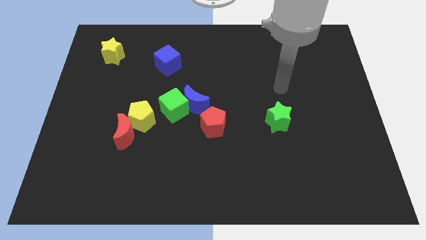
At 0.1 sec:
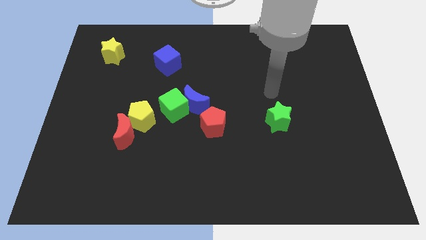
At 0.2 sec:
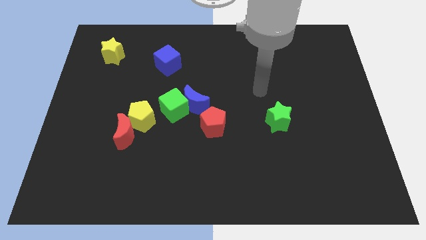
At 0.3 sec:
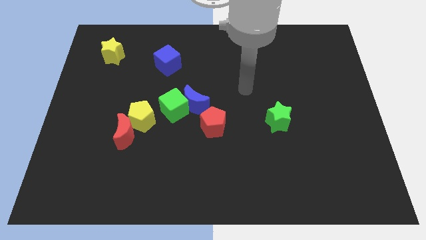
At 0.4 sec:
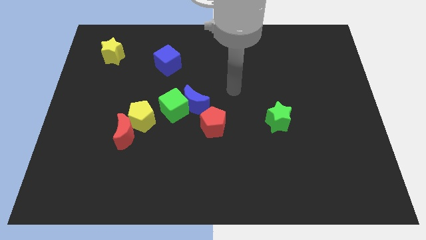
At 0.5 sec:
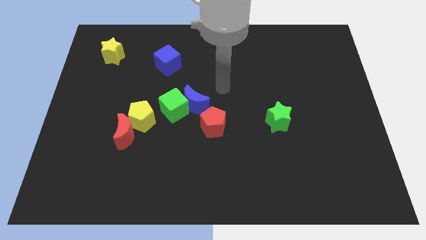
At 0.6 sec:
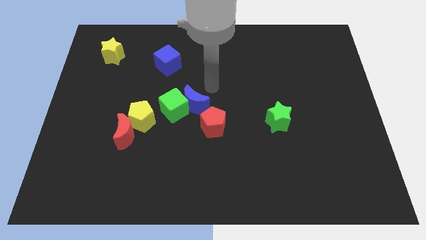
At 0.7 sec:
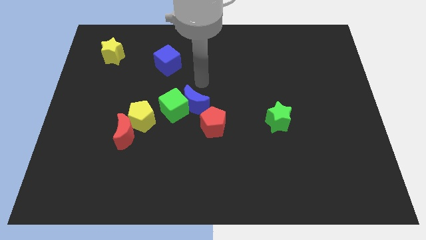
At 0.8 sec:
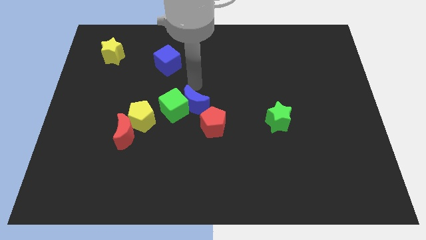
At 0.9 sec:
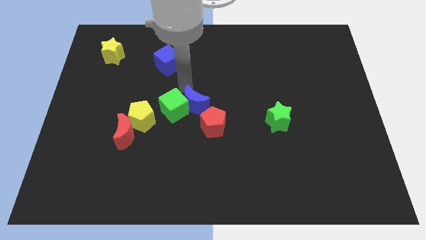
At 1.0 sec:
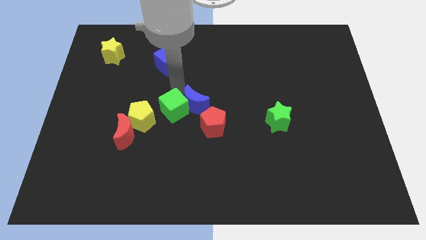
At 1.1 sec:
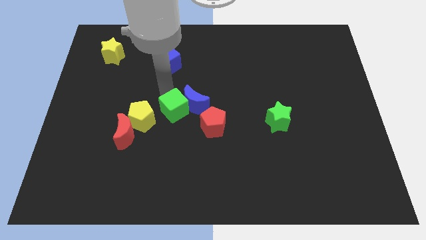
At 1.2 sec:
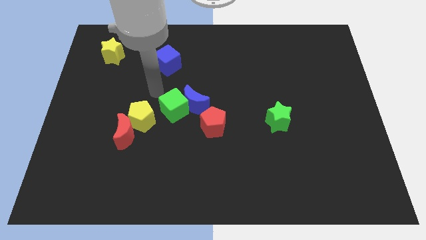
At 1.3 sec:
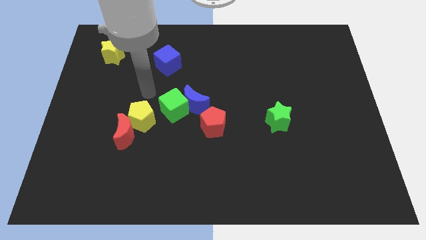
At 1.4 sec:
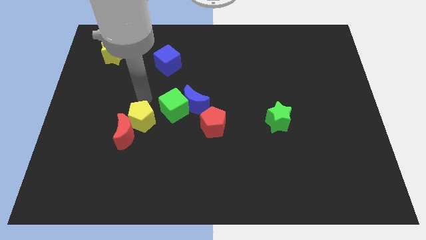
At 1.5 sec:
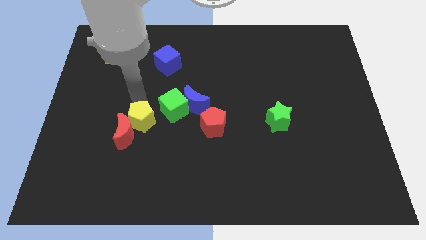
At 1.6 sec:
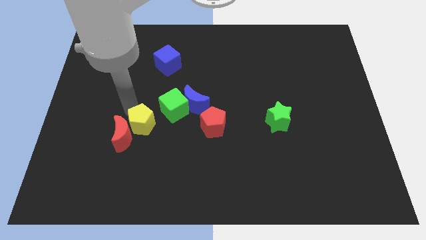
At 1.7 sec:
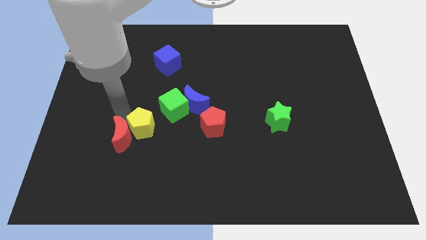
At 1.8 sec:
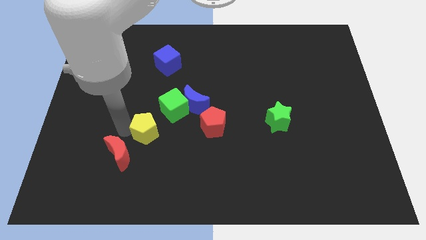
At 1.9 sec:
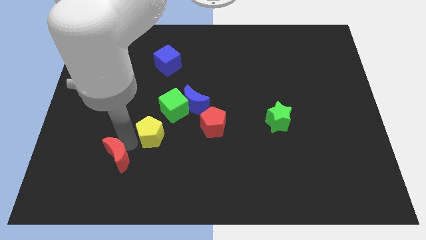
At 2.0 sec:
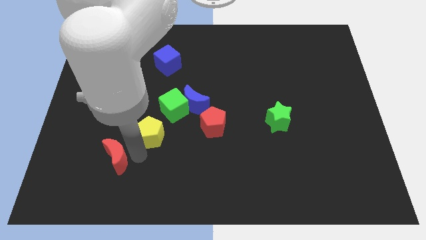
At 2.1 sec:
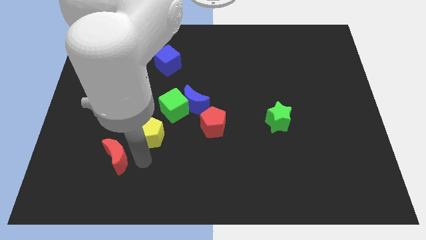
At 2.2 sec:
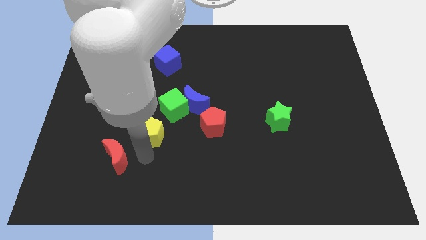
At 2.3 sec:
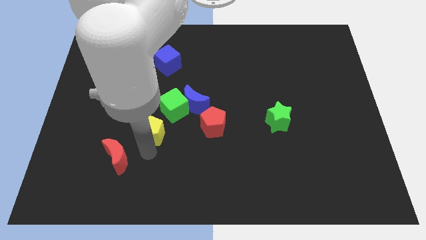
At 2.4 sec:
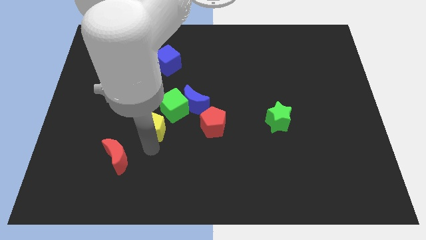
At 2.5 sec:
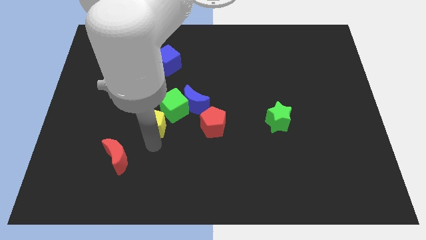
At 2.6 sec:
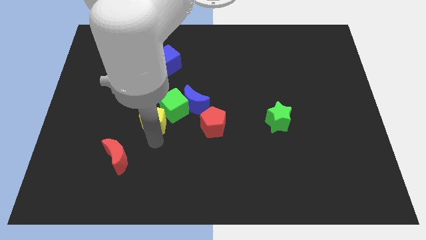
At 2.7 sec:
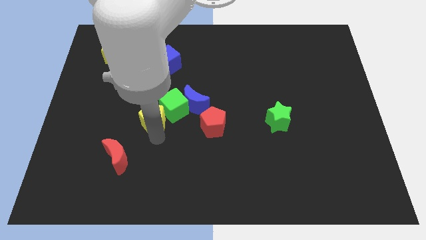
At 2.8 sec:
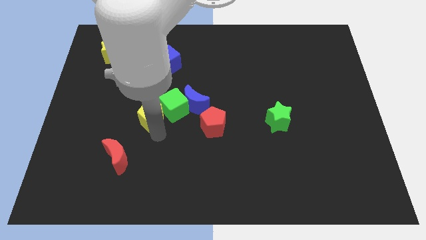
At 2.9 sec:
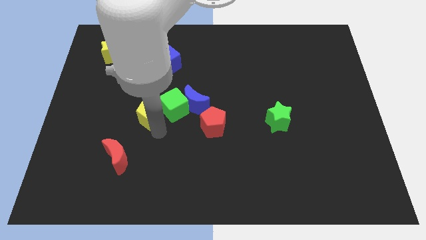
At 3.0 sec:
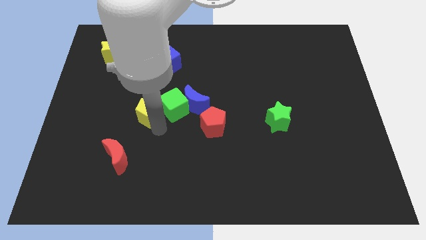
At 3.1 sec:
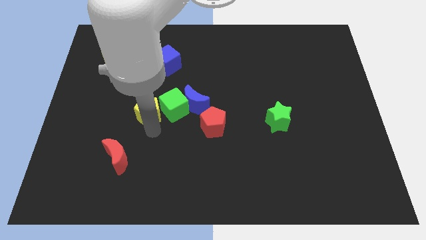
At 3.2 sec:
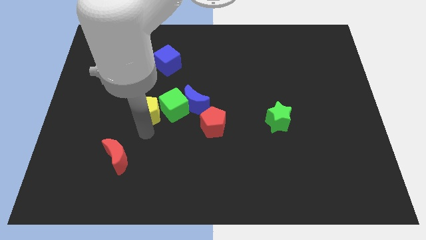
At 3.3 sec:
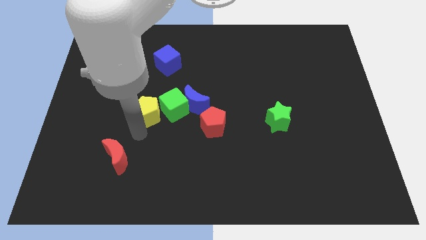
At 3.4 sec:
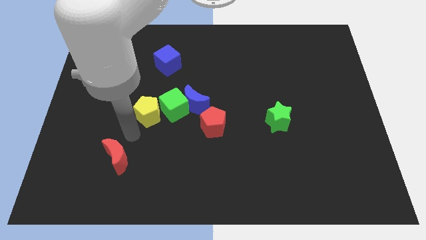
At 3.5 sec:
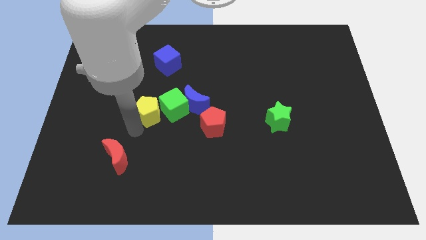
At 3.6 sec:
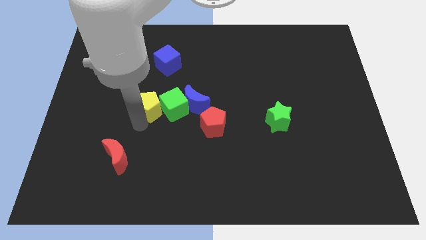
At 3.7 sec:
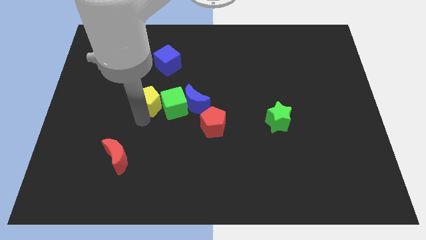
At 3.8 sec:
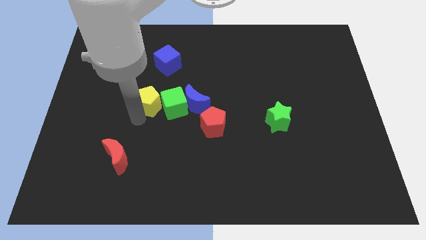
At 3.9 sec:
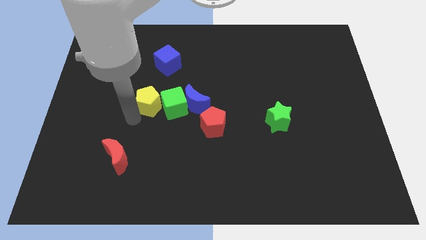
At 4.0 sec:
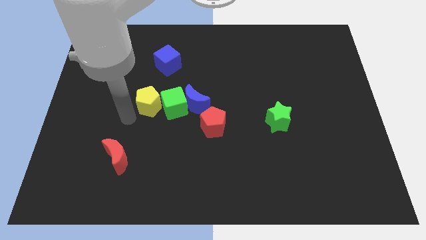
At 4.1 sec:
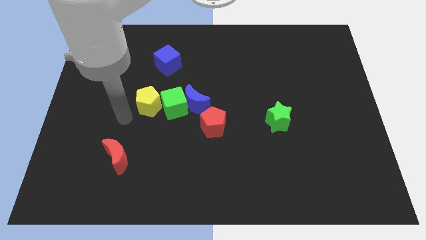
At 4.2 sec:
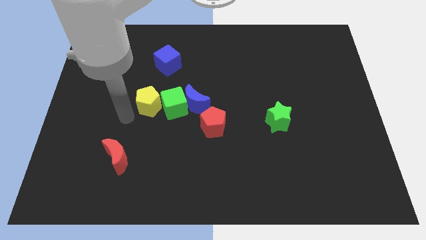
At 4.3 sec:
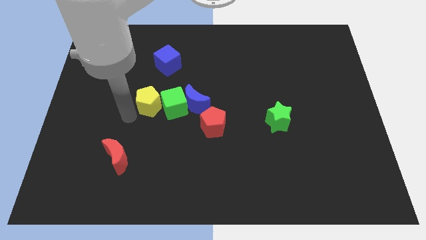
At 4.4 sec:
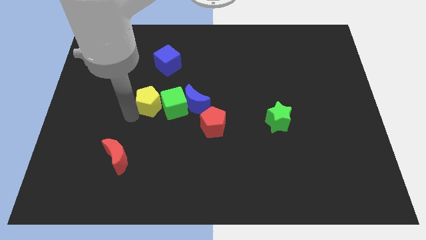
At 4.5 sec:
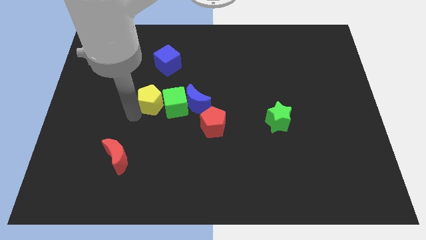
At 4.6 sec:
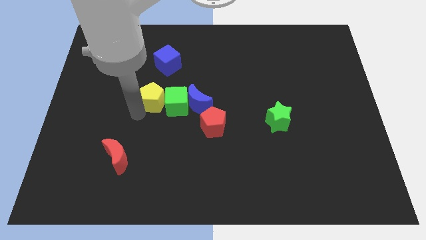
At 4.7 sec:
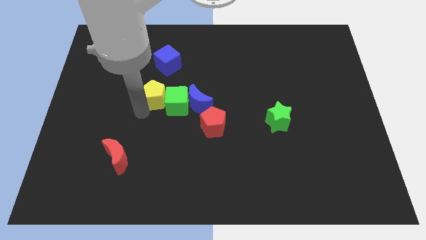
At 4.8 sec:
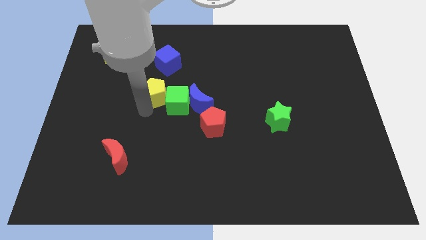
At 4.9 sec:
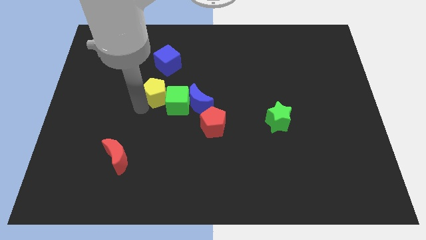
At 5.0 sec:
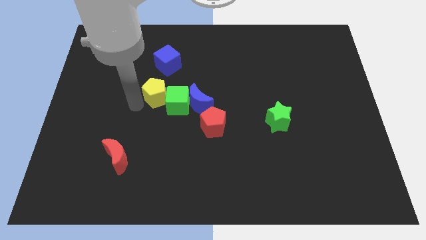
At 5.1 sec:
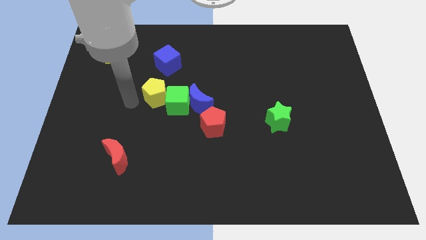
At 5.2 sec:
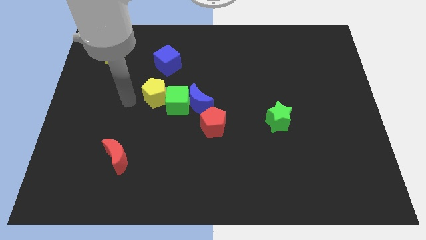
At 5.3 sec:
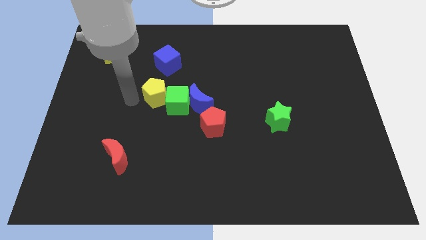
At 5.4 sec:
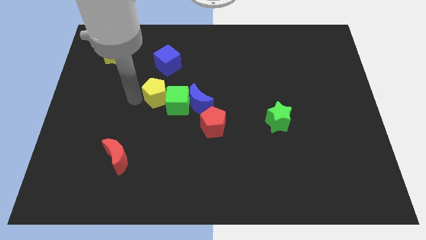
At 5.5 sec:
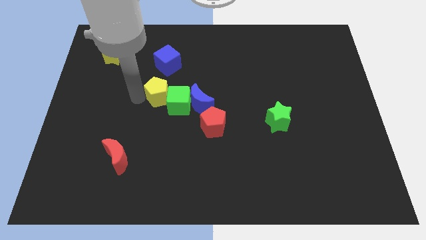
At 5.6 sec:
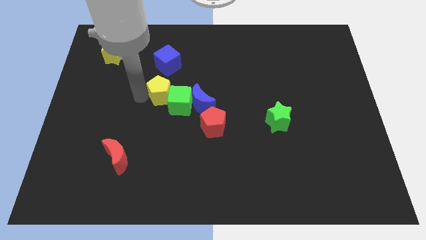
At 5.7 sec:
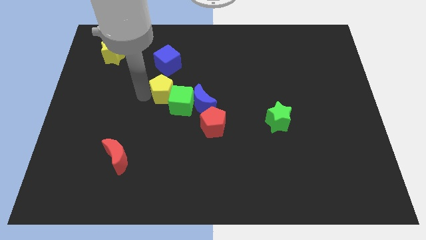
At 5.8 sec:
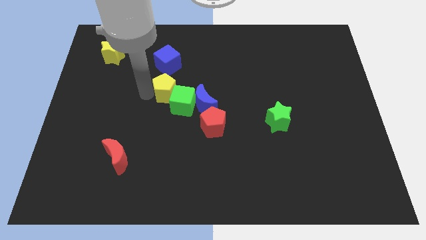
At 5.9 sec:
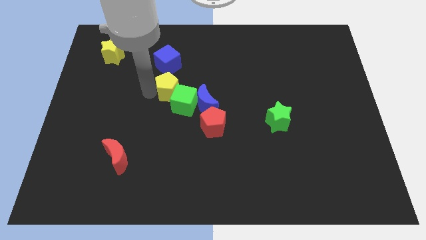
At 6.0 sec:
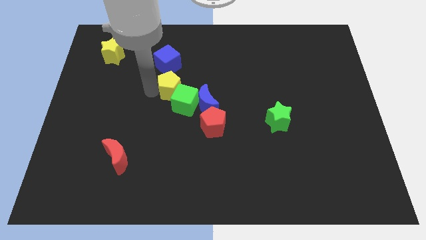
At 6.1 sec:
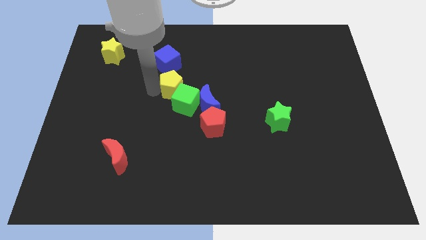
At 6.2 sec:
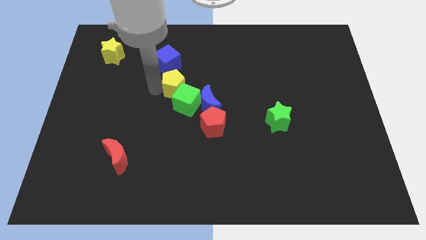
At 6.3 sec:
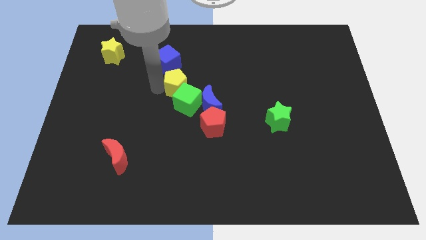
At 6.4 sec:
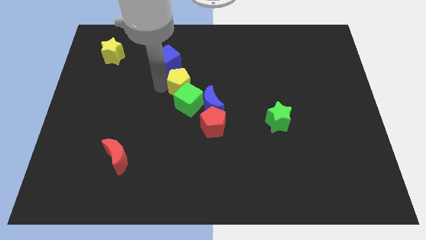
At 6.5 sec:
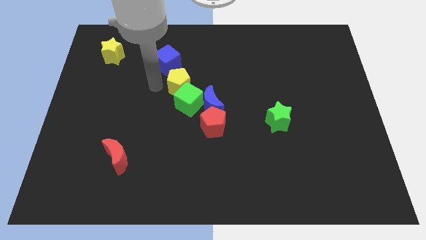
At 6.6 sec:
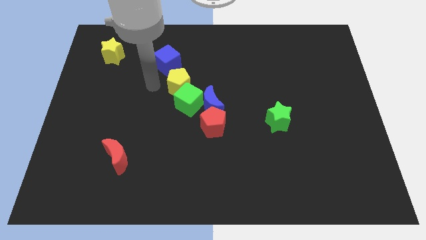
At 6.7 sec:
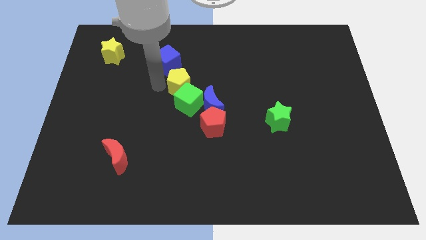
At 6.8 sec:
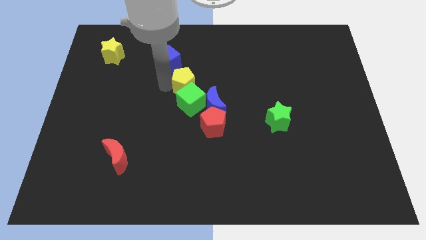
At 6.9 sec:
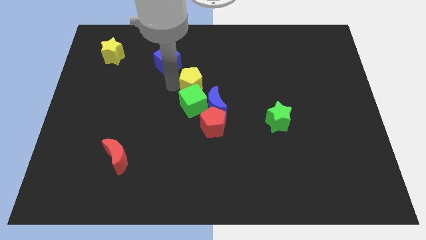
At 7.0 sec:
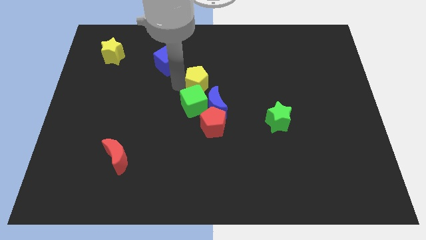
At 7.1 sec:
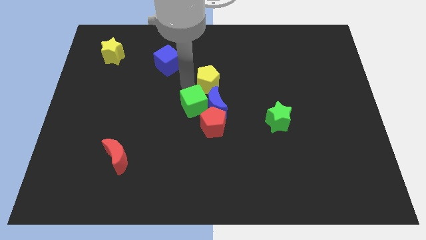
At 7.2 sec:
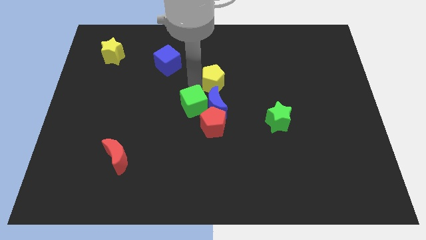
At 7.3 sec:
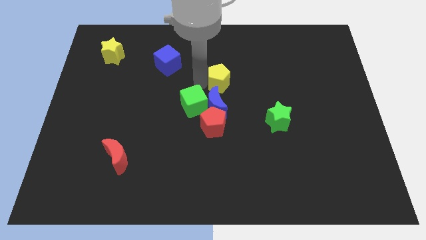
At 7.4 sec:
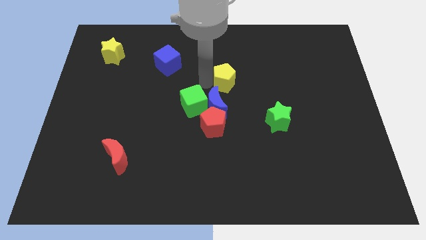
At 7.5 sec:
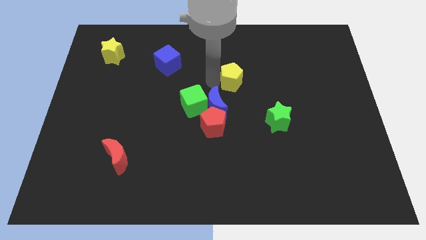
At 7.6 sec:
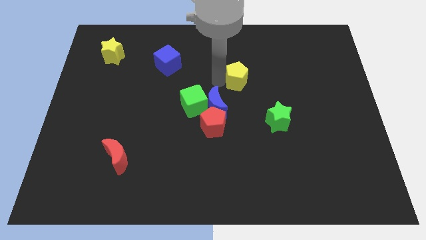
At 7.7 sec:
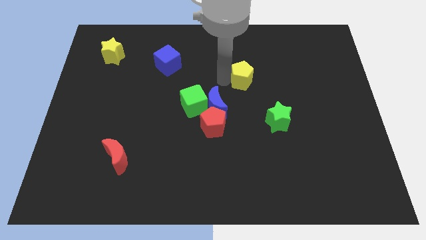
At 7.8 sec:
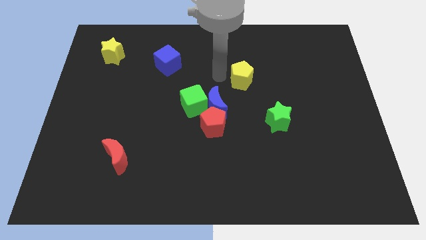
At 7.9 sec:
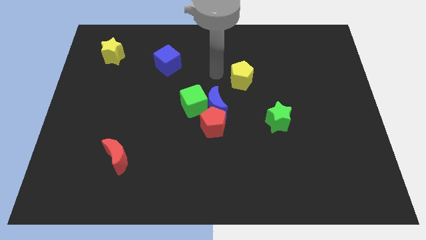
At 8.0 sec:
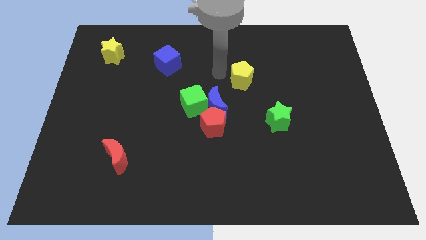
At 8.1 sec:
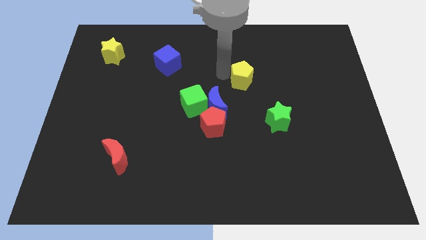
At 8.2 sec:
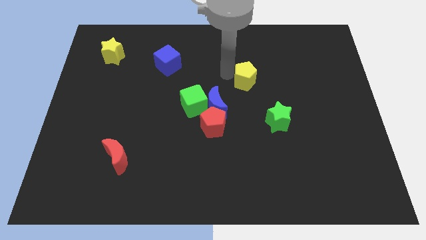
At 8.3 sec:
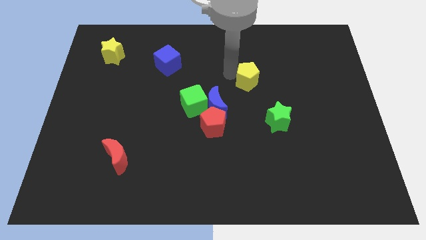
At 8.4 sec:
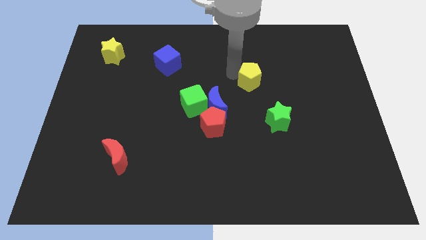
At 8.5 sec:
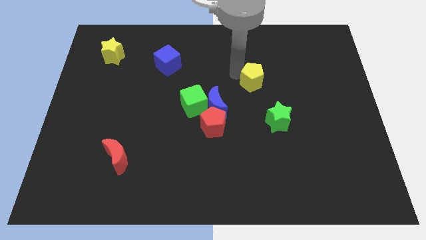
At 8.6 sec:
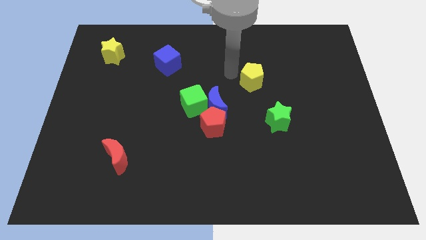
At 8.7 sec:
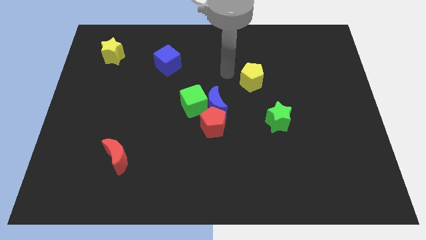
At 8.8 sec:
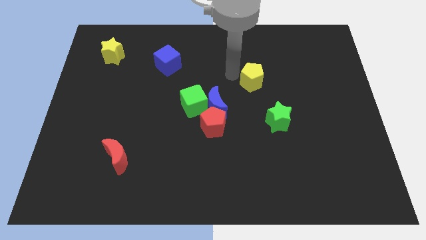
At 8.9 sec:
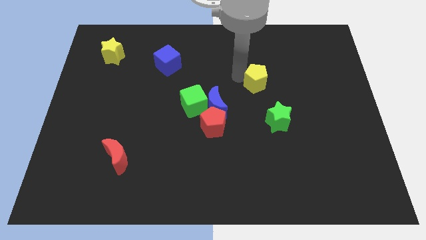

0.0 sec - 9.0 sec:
move the yellow pentagon above the green star
